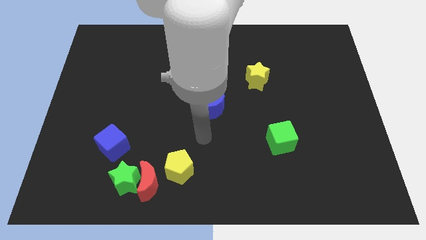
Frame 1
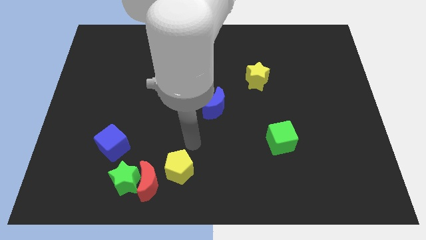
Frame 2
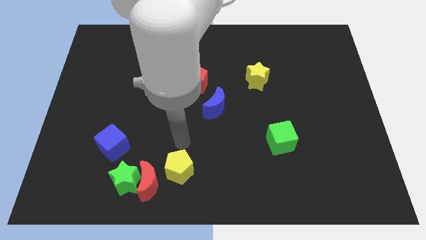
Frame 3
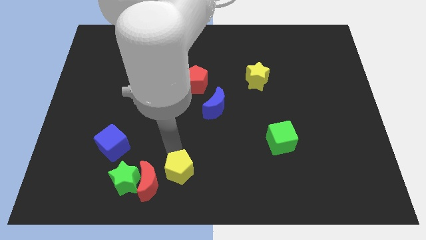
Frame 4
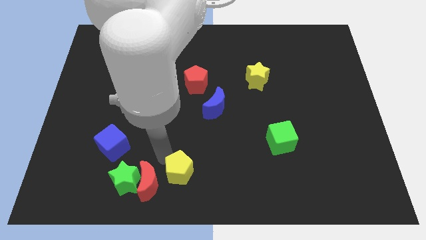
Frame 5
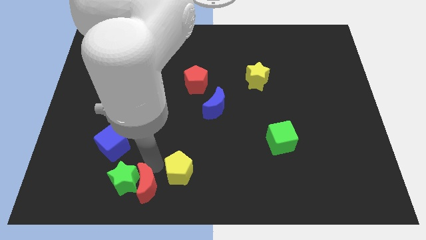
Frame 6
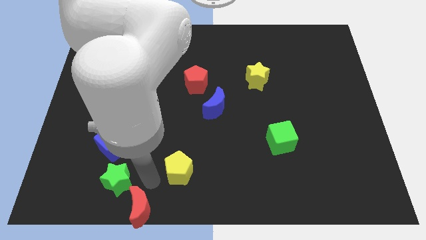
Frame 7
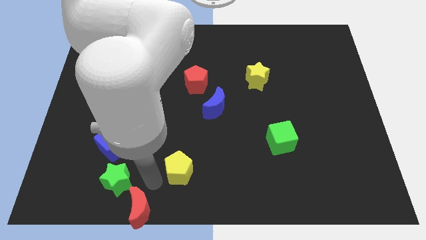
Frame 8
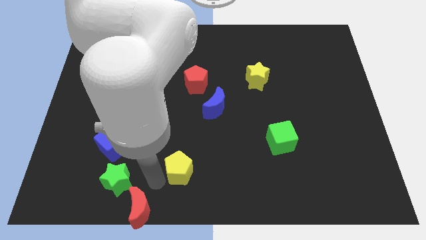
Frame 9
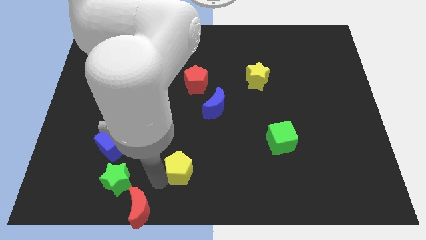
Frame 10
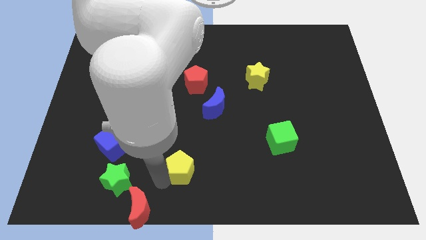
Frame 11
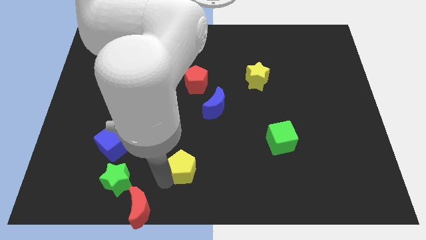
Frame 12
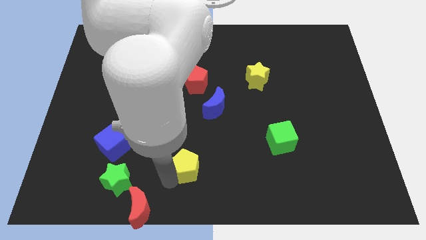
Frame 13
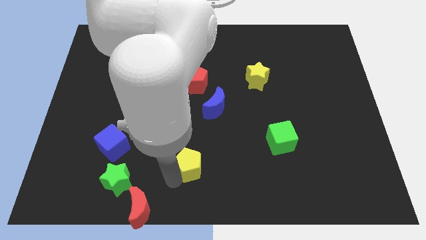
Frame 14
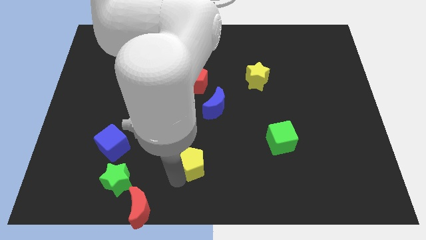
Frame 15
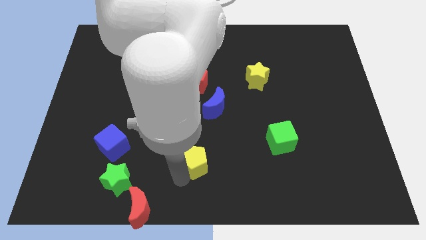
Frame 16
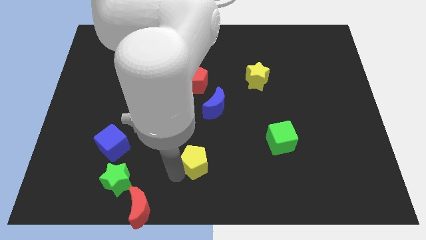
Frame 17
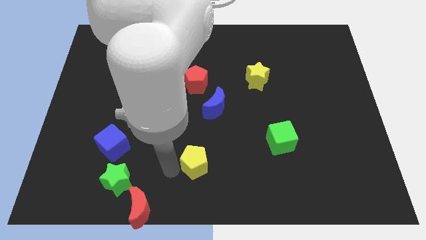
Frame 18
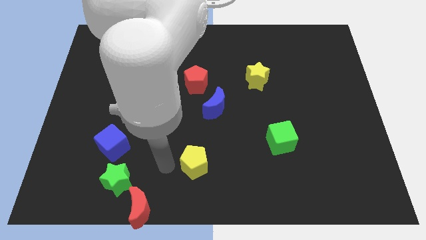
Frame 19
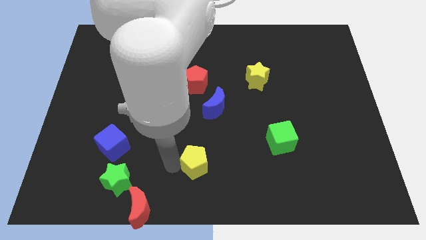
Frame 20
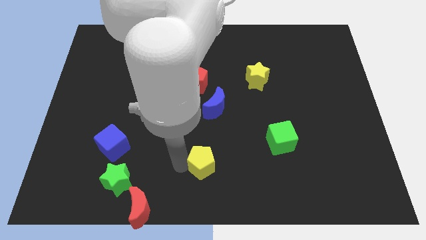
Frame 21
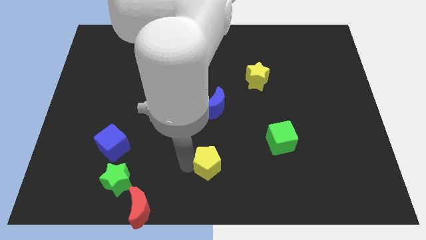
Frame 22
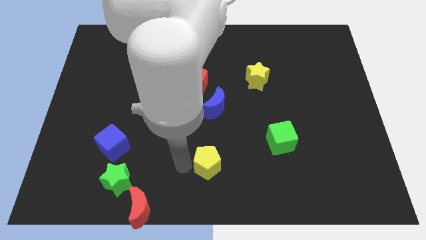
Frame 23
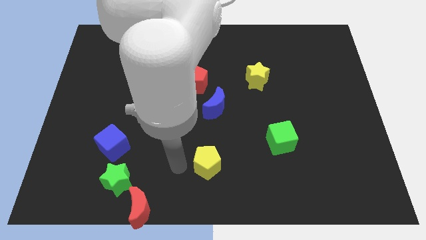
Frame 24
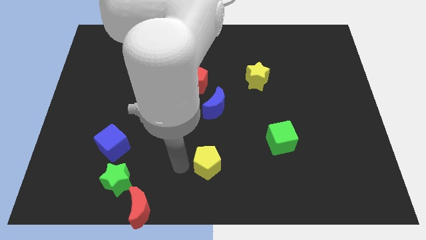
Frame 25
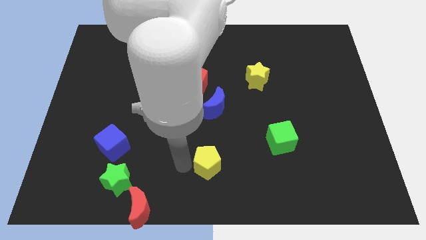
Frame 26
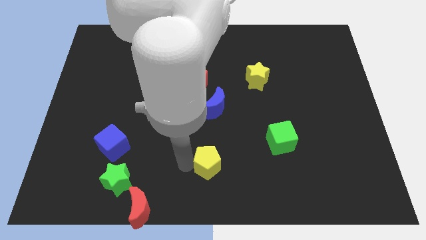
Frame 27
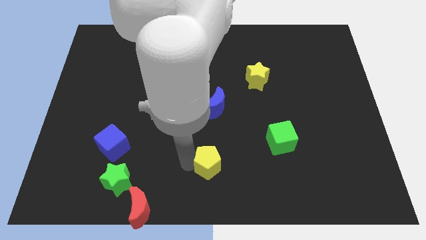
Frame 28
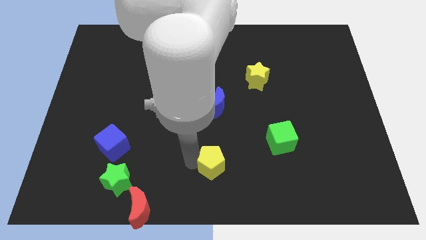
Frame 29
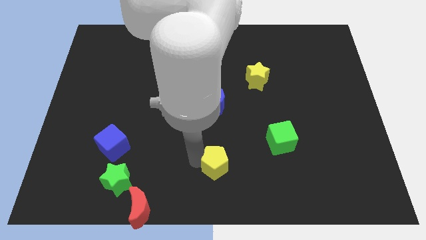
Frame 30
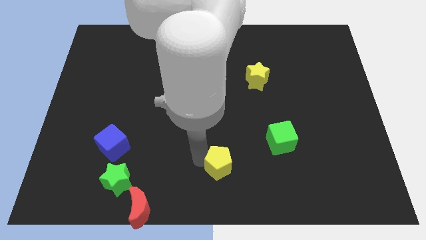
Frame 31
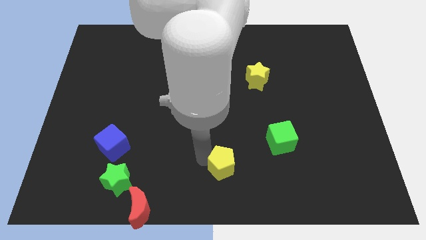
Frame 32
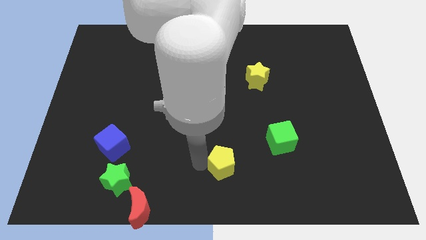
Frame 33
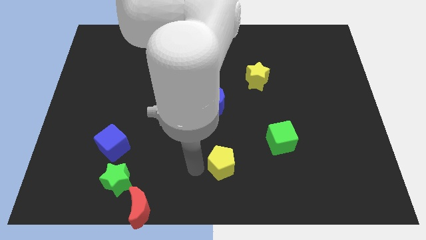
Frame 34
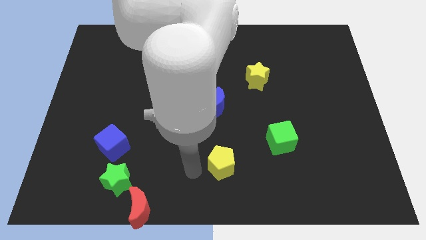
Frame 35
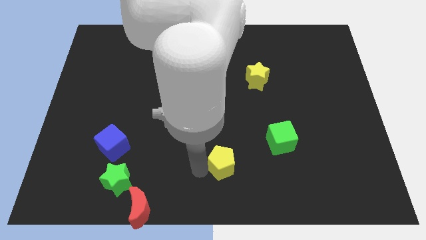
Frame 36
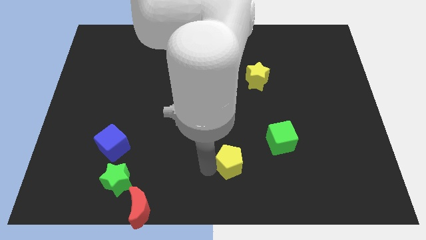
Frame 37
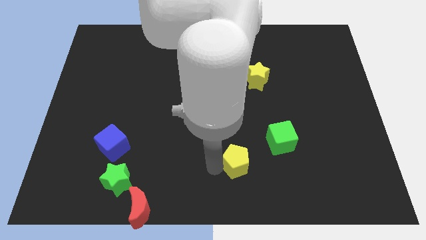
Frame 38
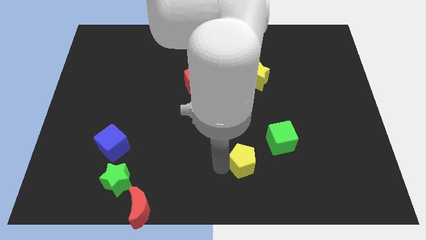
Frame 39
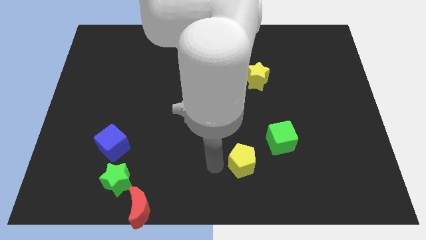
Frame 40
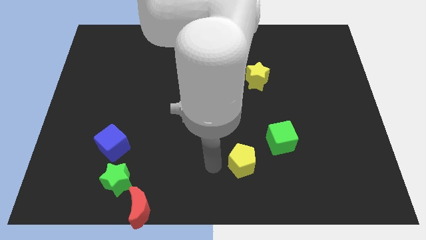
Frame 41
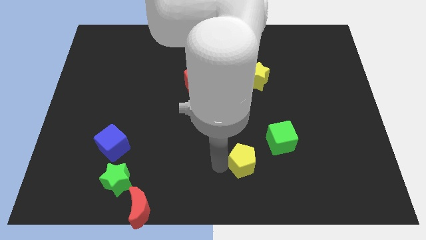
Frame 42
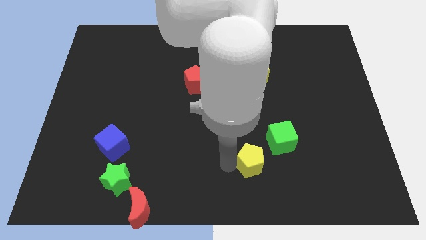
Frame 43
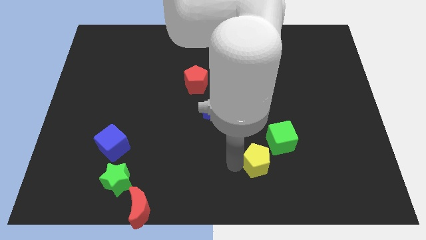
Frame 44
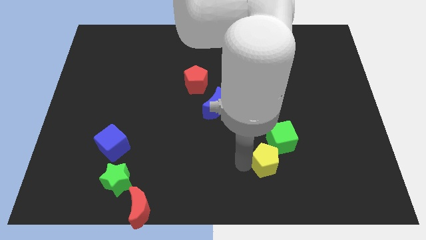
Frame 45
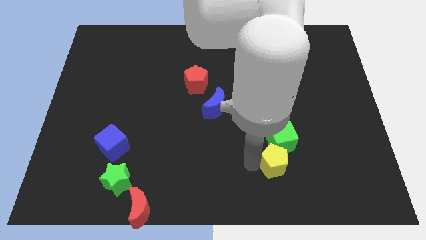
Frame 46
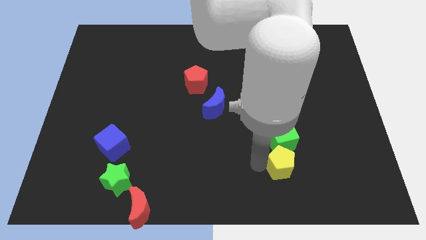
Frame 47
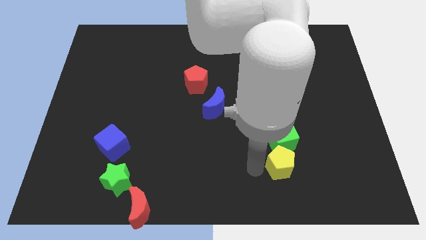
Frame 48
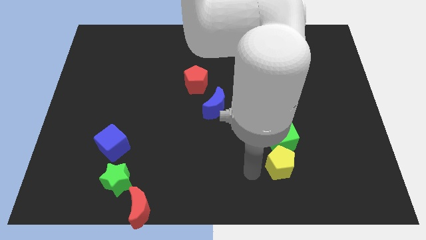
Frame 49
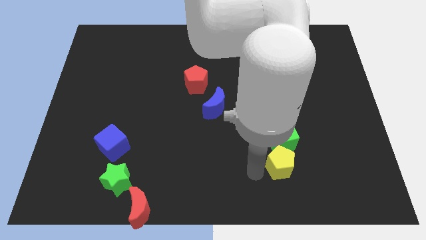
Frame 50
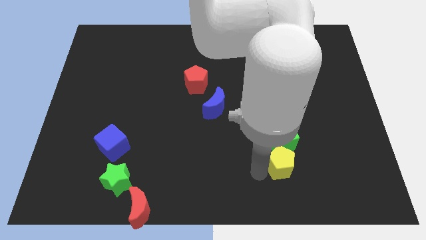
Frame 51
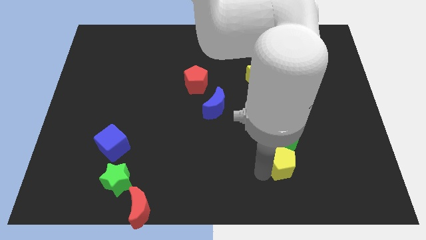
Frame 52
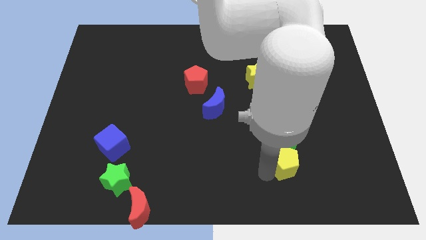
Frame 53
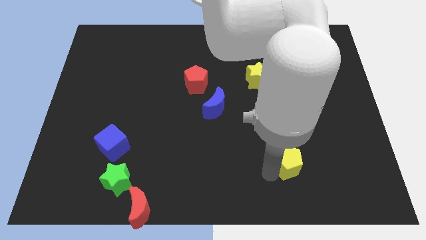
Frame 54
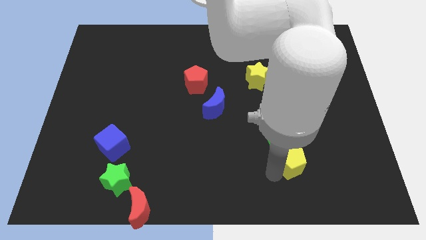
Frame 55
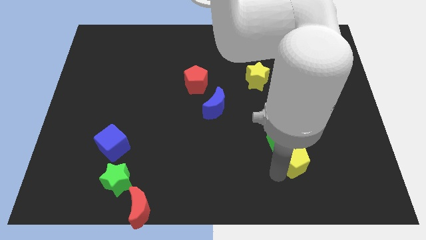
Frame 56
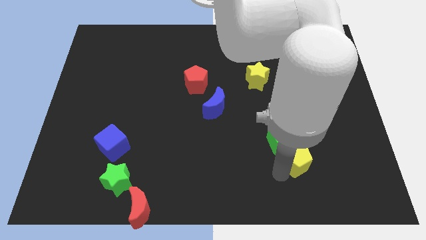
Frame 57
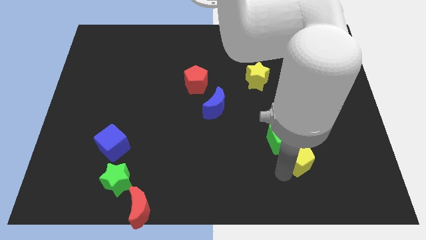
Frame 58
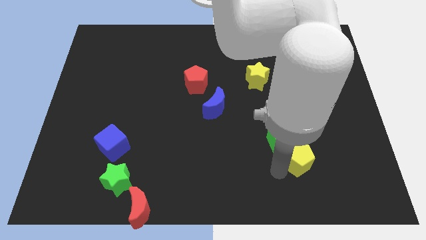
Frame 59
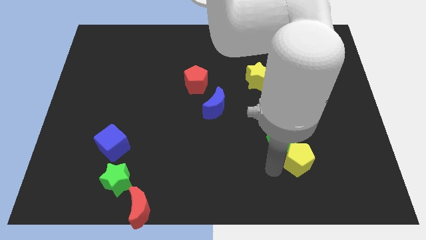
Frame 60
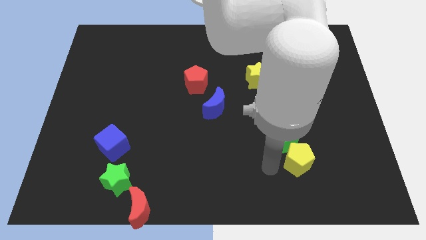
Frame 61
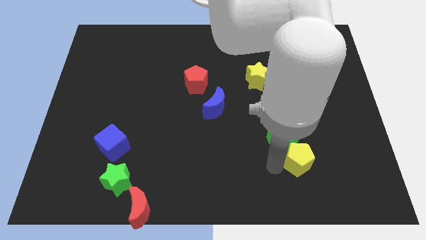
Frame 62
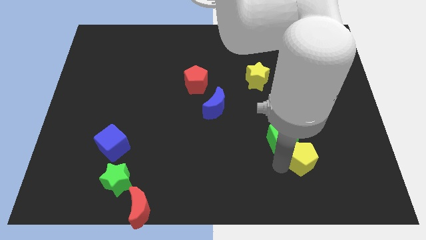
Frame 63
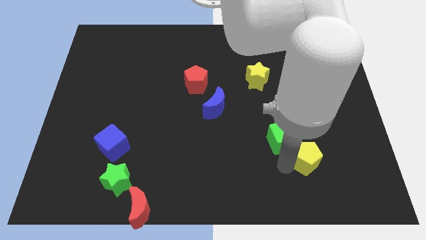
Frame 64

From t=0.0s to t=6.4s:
put the yellow pentagon to the right of the green cube

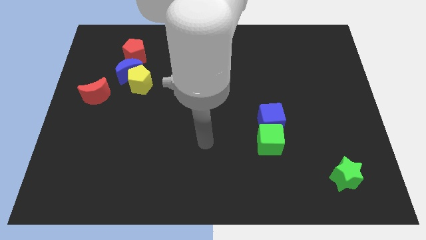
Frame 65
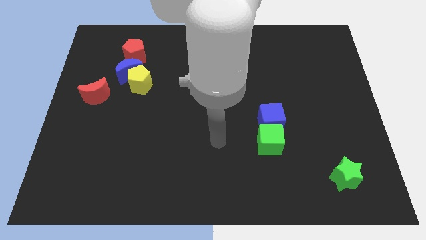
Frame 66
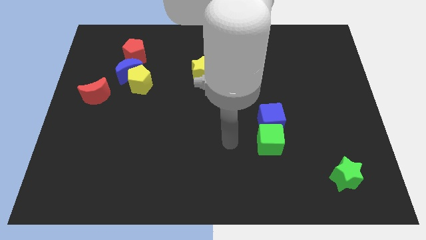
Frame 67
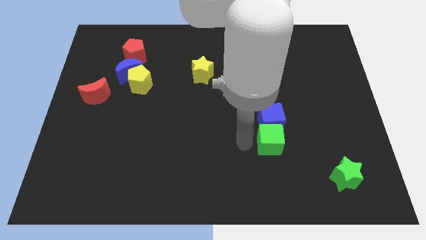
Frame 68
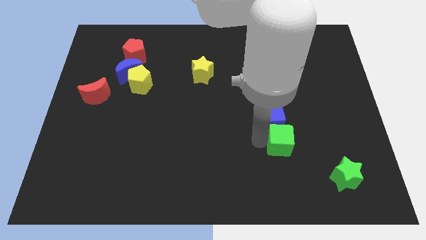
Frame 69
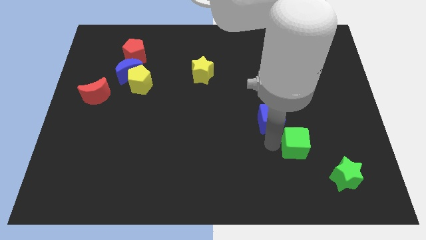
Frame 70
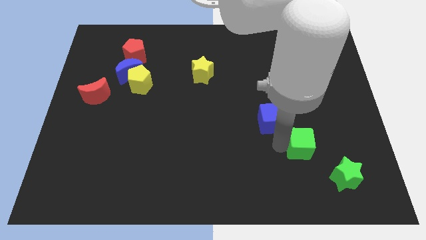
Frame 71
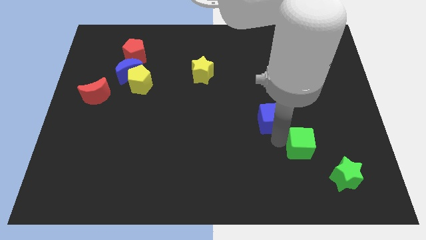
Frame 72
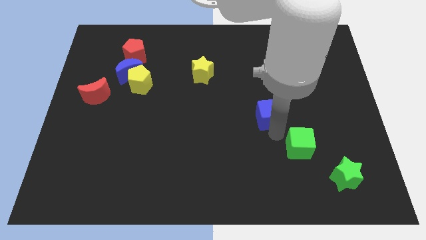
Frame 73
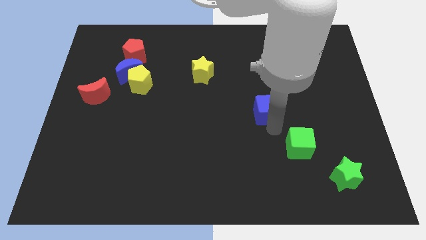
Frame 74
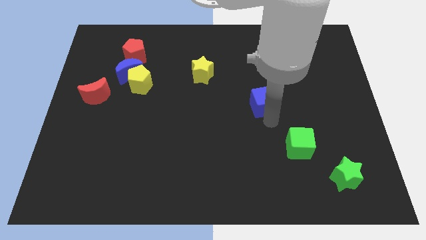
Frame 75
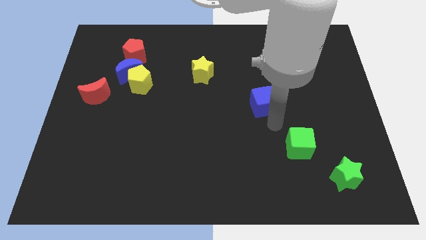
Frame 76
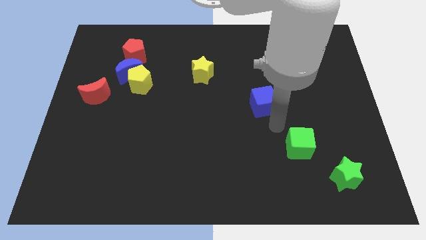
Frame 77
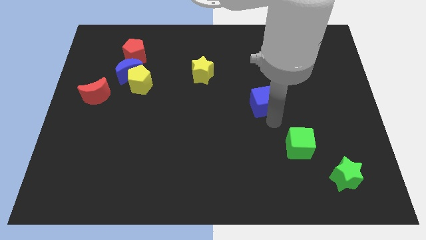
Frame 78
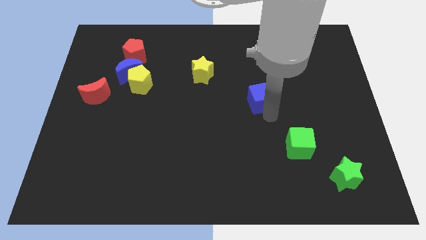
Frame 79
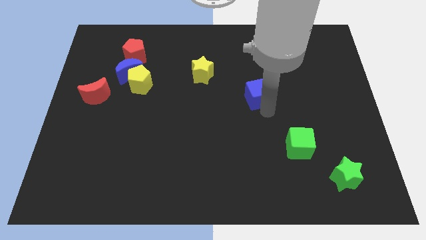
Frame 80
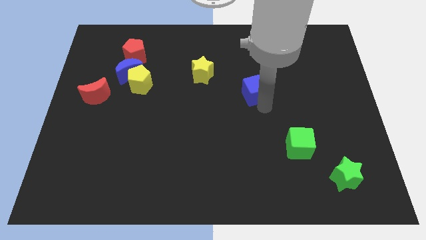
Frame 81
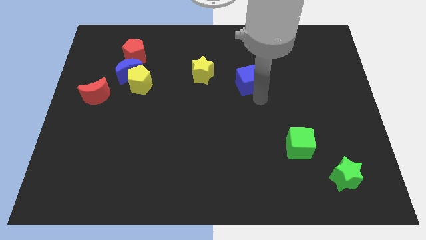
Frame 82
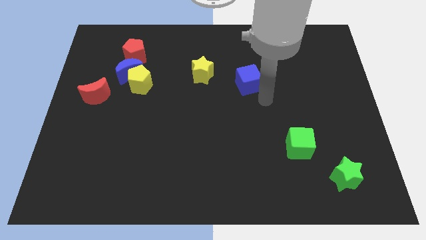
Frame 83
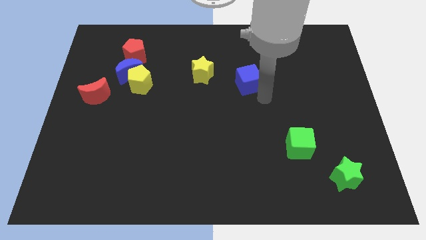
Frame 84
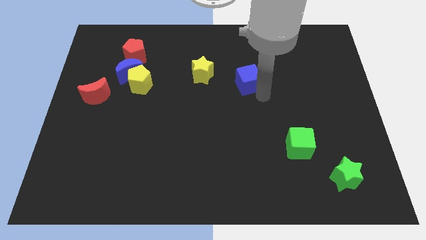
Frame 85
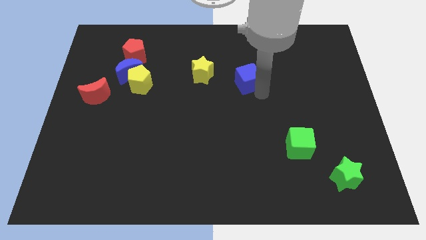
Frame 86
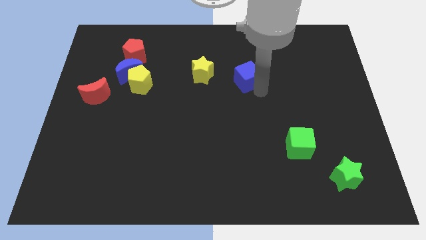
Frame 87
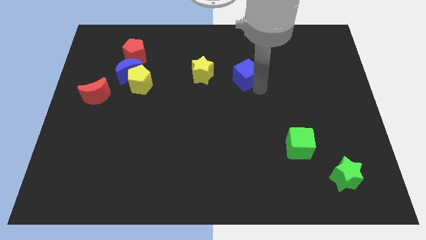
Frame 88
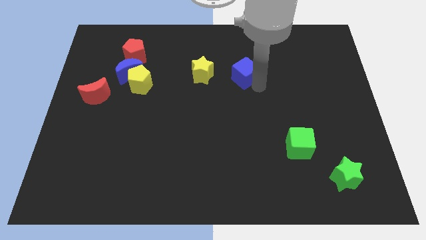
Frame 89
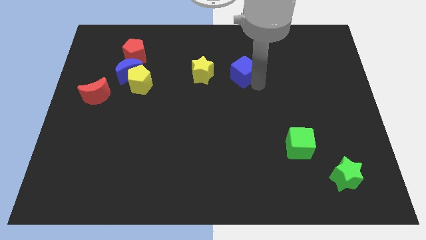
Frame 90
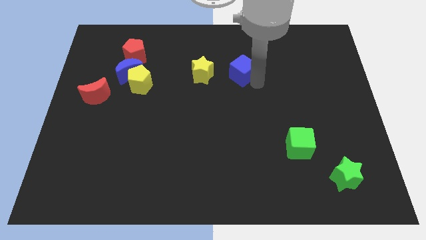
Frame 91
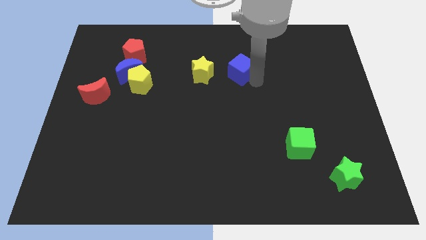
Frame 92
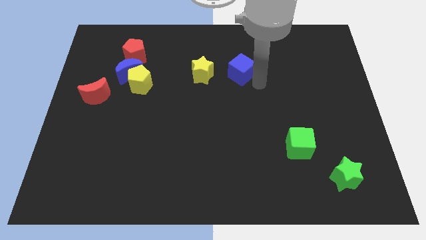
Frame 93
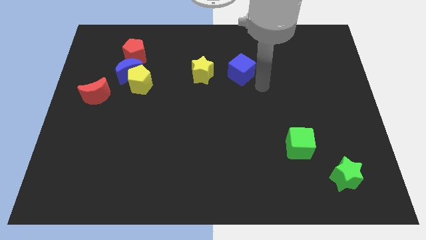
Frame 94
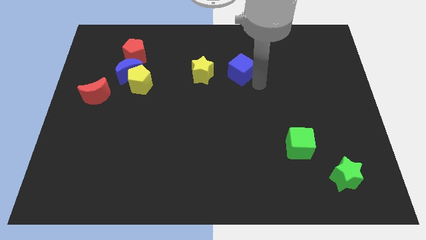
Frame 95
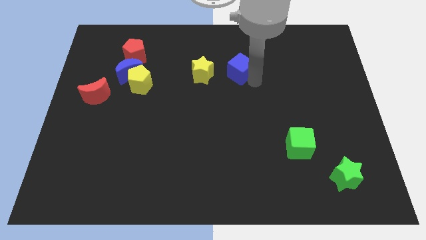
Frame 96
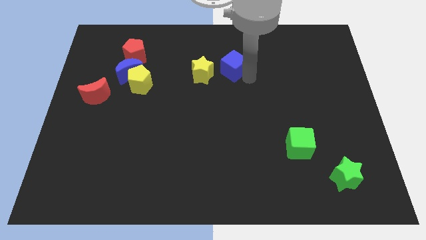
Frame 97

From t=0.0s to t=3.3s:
put the blue cube to the top right side of the yellow star
